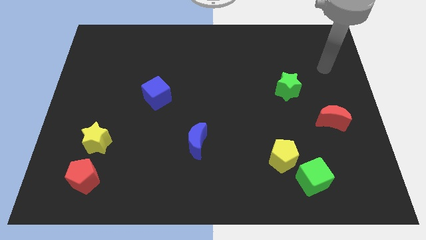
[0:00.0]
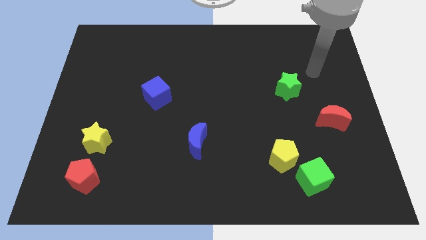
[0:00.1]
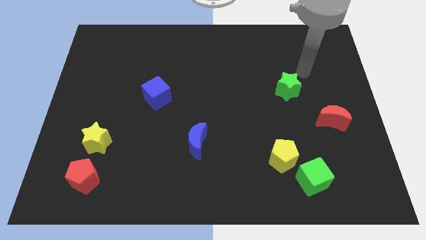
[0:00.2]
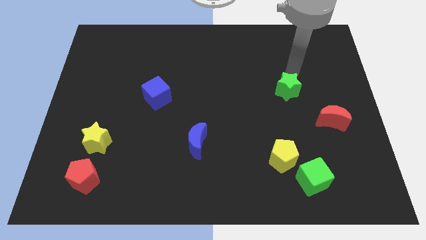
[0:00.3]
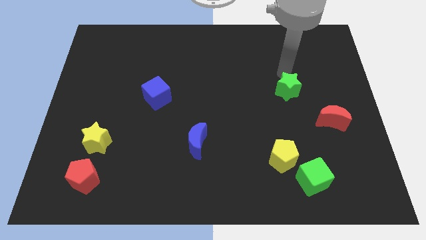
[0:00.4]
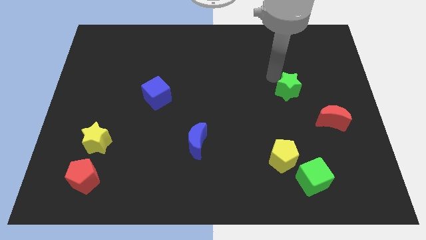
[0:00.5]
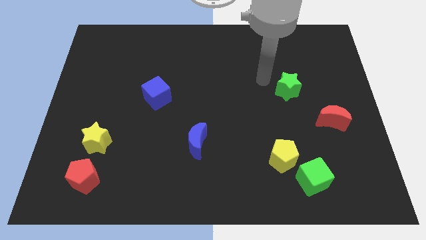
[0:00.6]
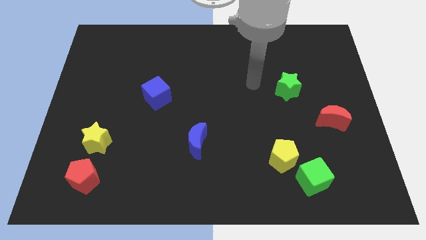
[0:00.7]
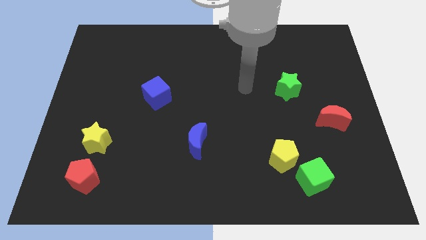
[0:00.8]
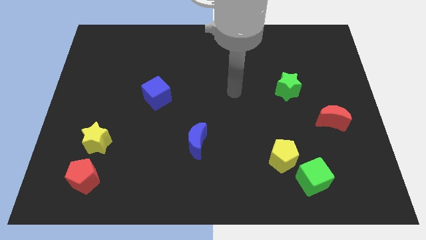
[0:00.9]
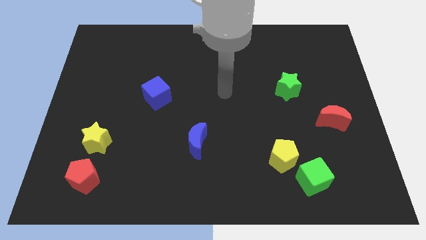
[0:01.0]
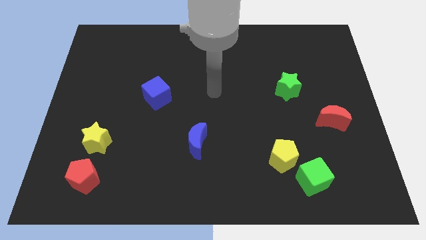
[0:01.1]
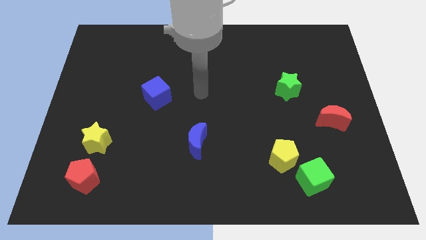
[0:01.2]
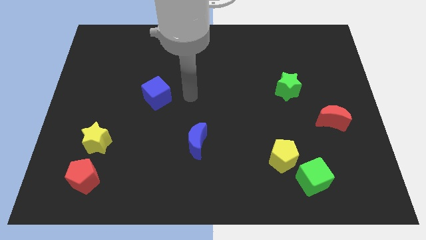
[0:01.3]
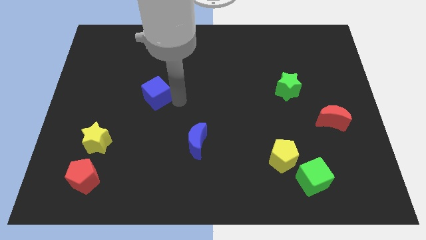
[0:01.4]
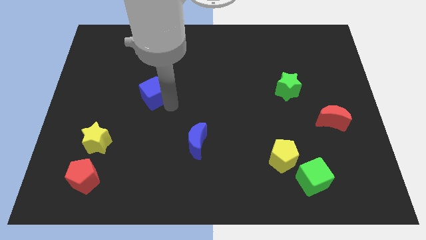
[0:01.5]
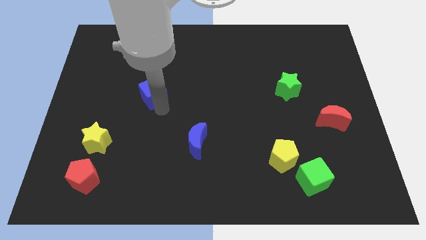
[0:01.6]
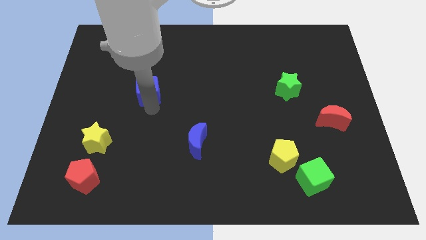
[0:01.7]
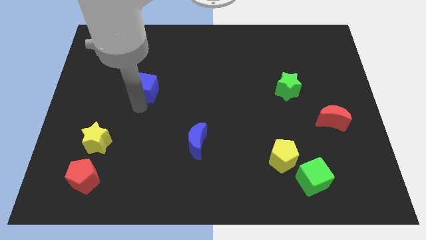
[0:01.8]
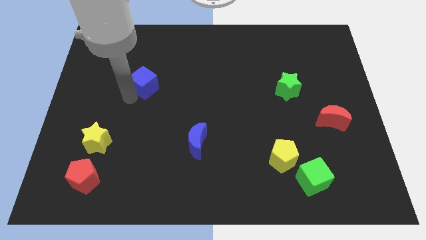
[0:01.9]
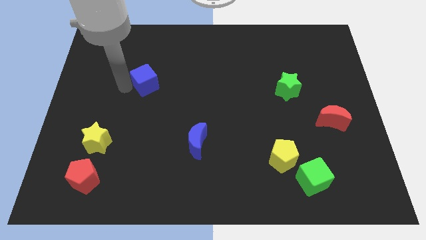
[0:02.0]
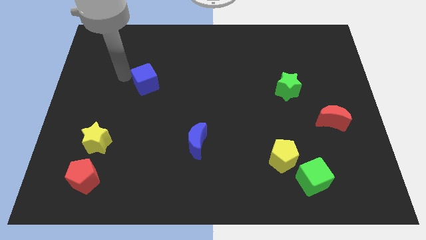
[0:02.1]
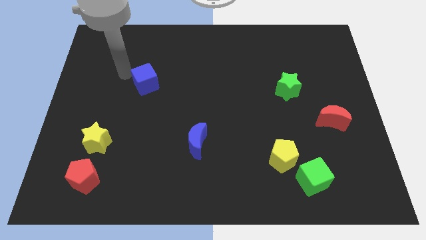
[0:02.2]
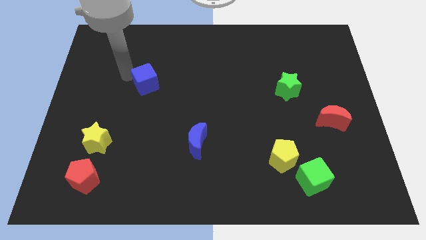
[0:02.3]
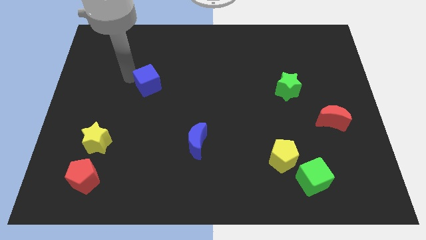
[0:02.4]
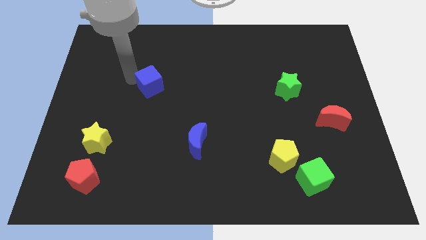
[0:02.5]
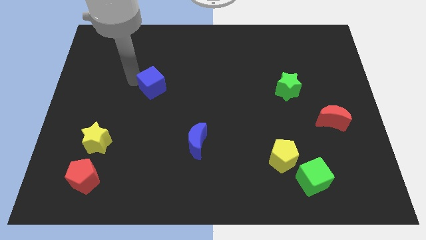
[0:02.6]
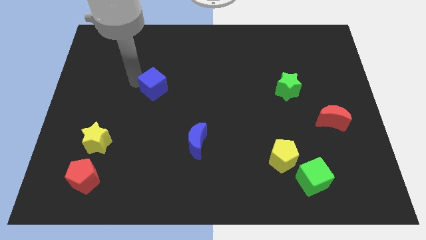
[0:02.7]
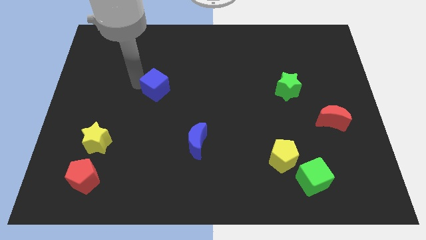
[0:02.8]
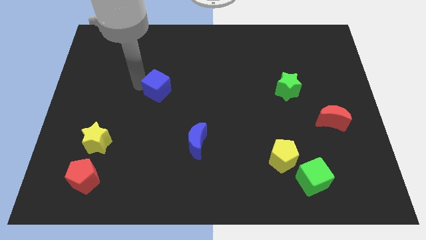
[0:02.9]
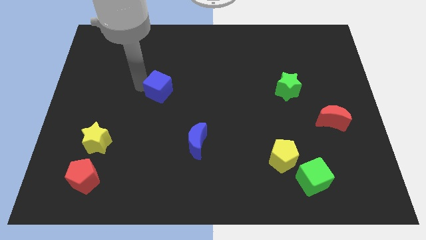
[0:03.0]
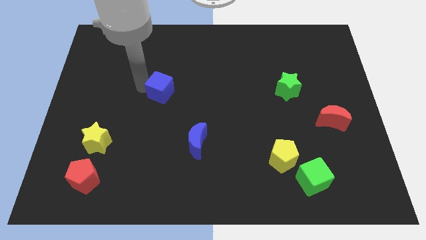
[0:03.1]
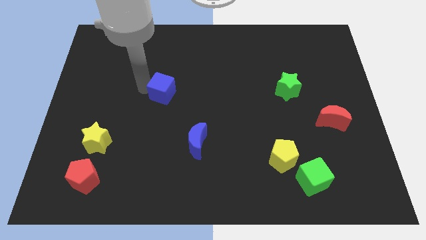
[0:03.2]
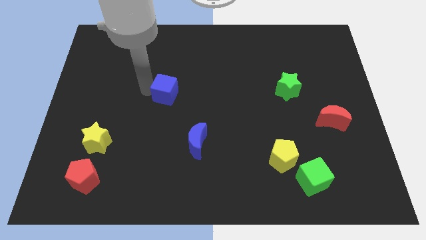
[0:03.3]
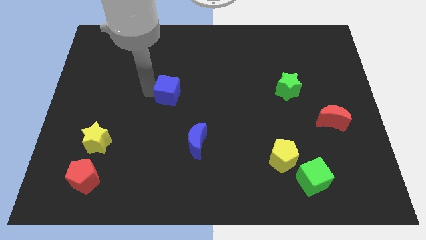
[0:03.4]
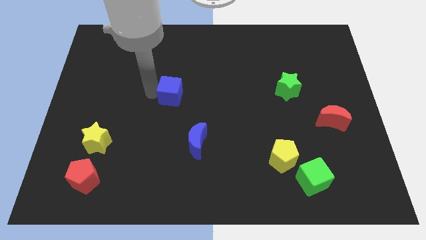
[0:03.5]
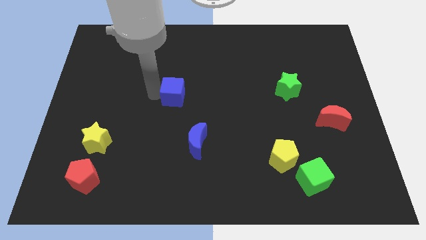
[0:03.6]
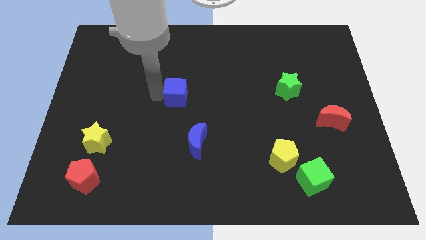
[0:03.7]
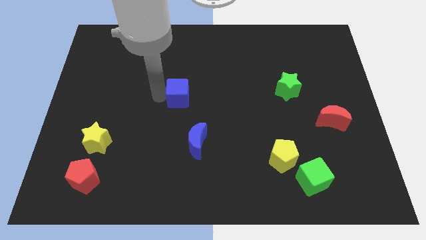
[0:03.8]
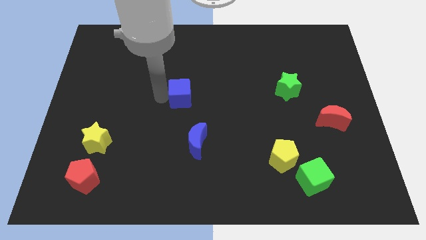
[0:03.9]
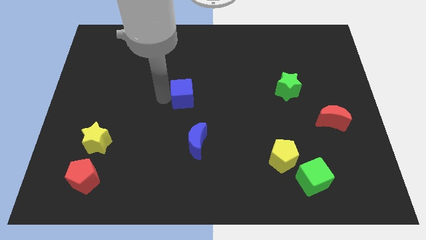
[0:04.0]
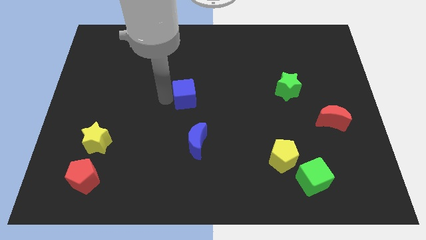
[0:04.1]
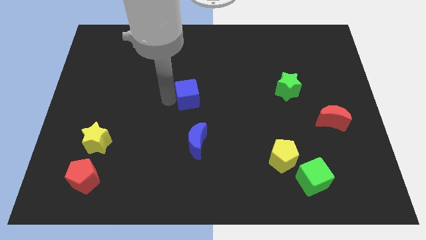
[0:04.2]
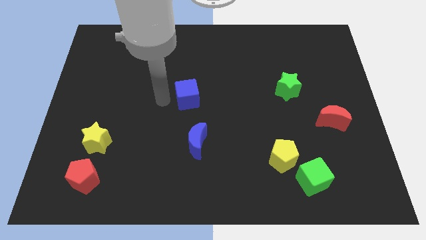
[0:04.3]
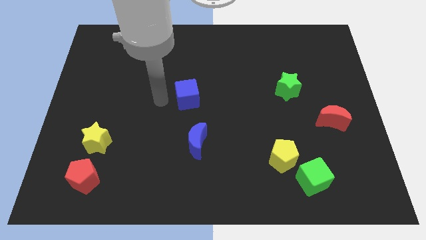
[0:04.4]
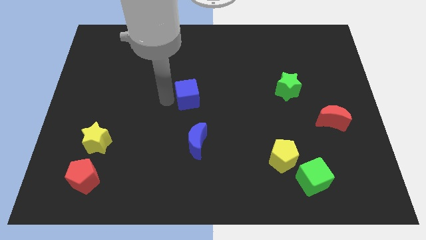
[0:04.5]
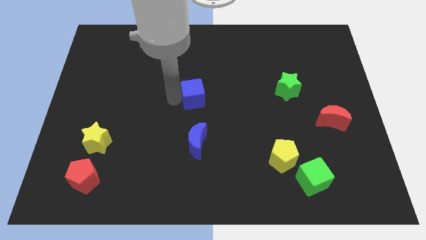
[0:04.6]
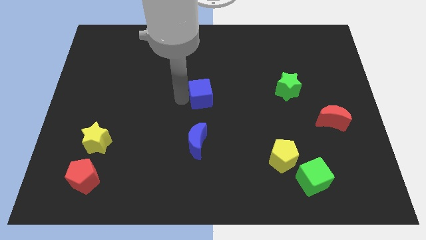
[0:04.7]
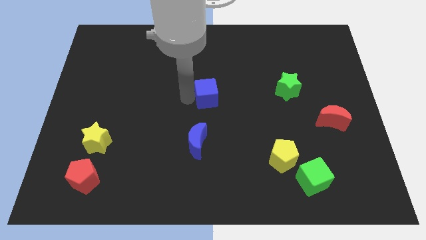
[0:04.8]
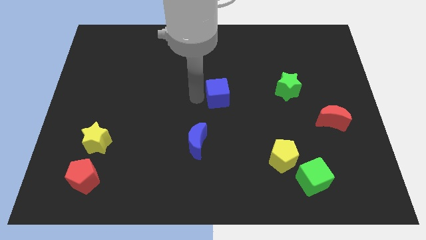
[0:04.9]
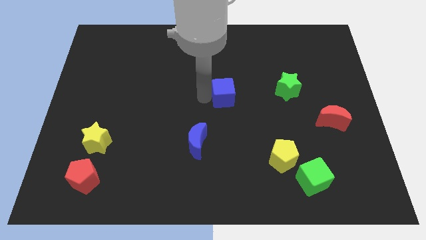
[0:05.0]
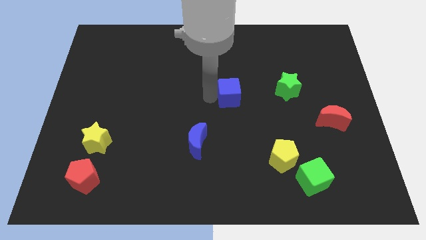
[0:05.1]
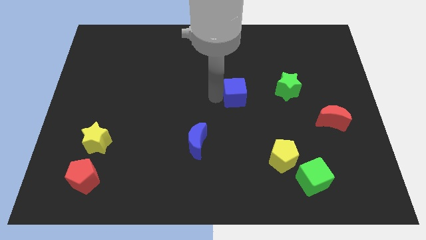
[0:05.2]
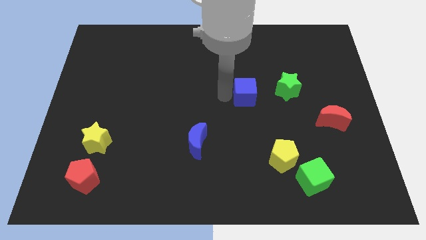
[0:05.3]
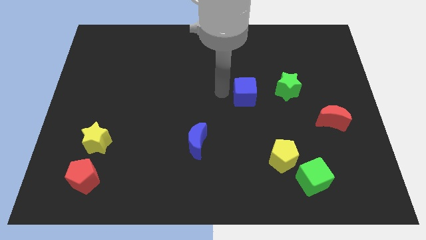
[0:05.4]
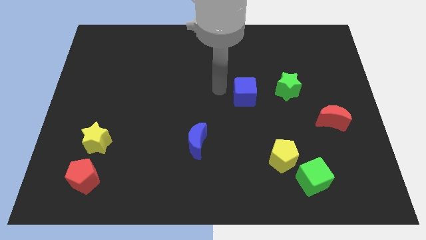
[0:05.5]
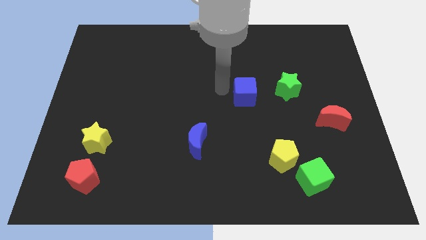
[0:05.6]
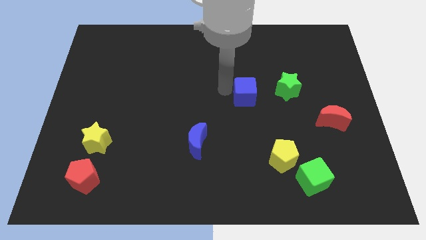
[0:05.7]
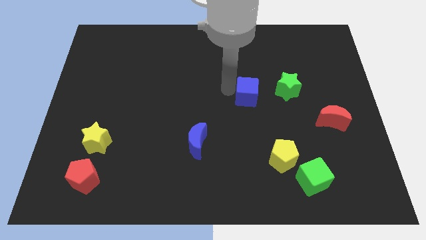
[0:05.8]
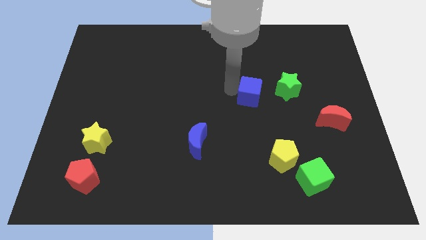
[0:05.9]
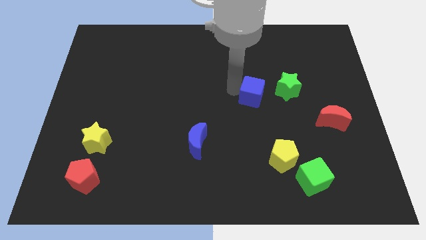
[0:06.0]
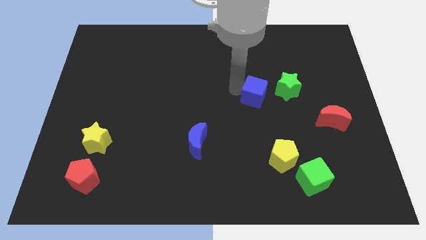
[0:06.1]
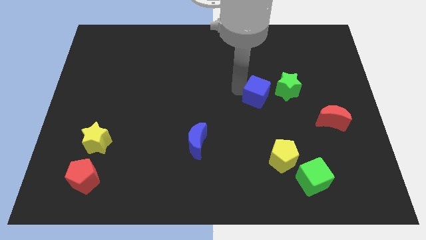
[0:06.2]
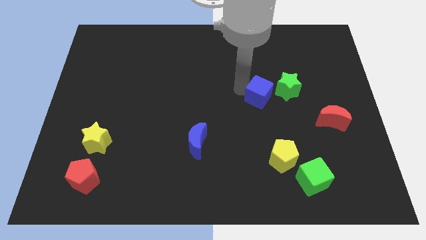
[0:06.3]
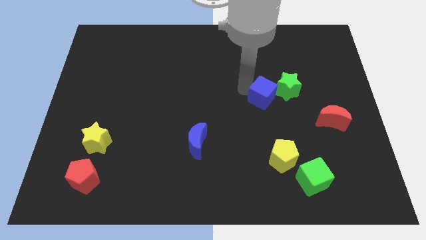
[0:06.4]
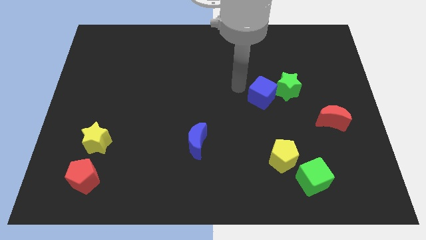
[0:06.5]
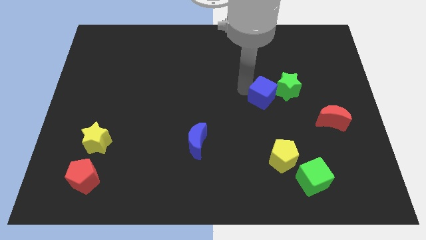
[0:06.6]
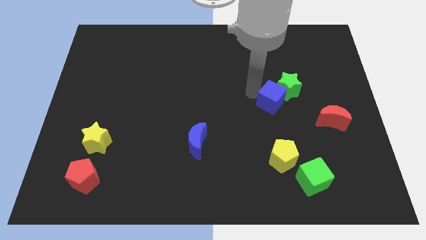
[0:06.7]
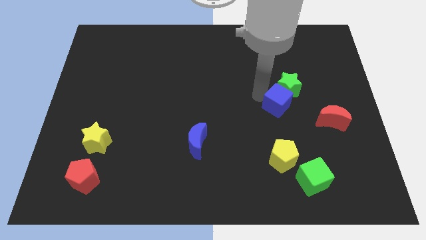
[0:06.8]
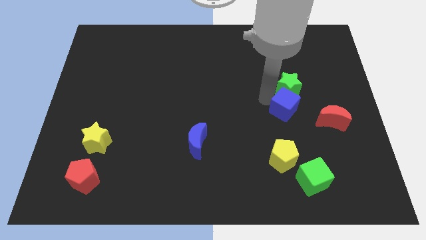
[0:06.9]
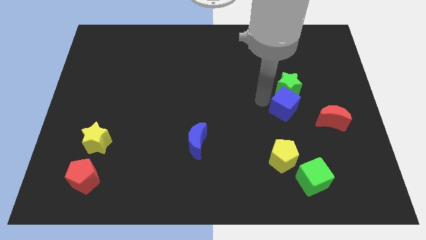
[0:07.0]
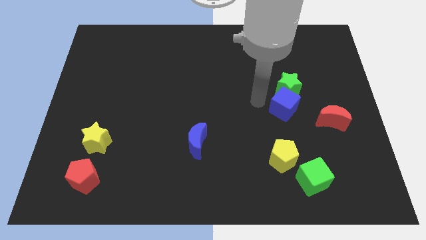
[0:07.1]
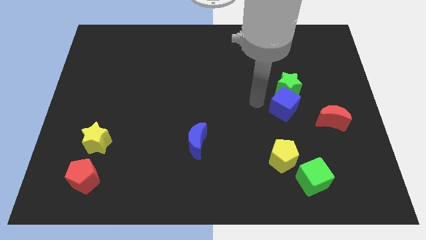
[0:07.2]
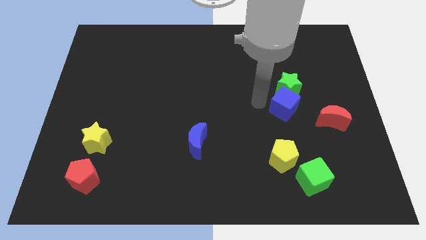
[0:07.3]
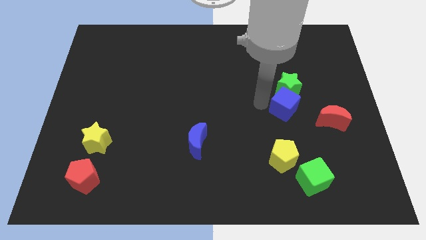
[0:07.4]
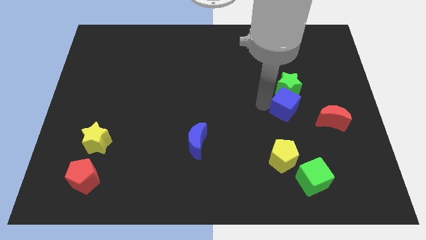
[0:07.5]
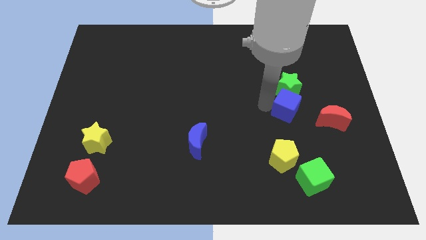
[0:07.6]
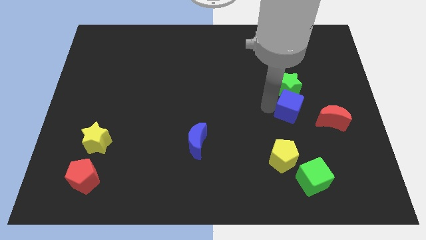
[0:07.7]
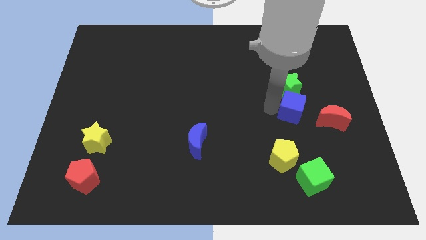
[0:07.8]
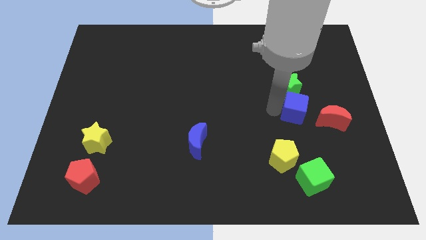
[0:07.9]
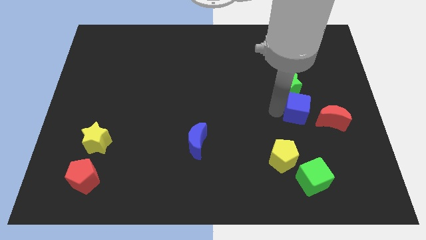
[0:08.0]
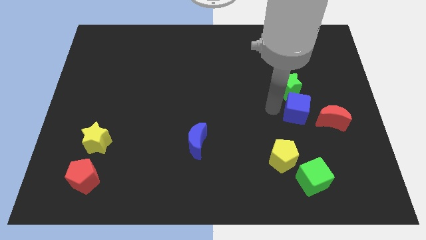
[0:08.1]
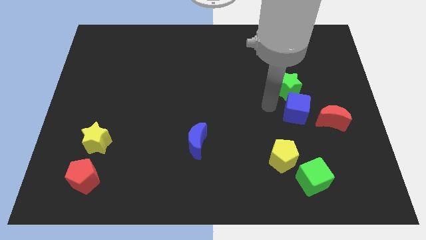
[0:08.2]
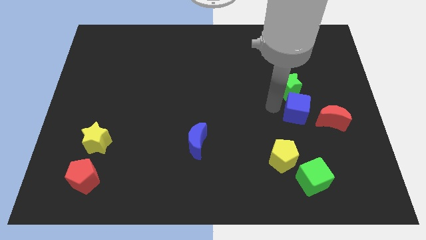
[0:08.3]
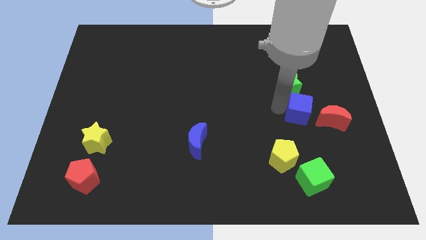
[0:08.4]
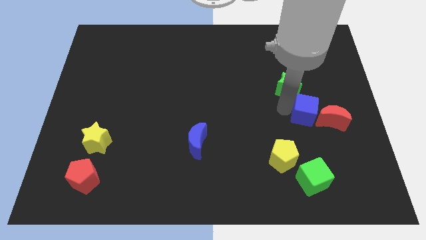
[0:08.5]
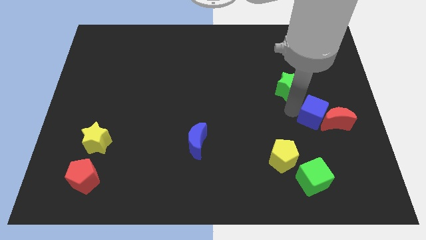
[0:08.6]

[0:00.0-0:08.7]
slide the blue cube next to the red moon
